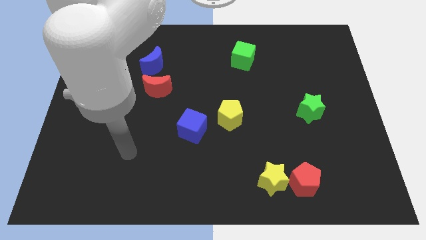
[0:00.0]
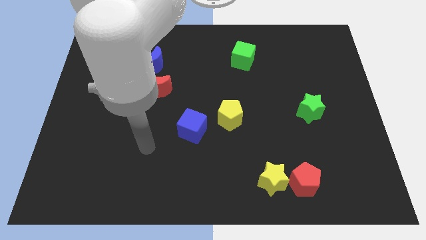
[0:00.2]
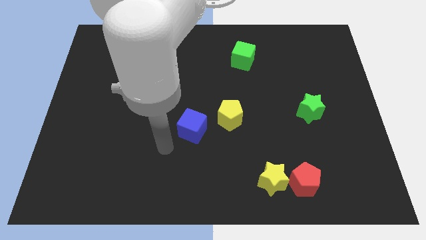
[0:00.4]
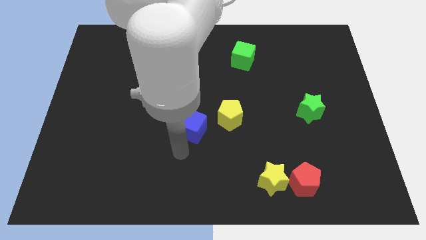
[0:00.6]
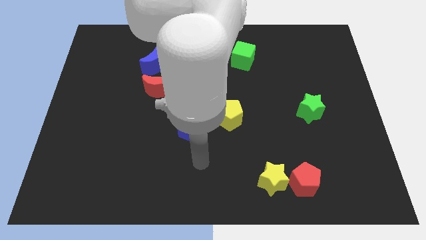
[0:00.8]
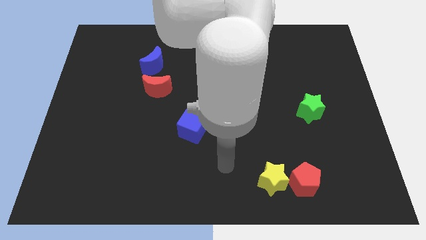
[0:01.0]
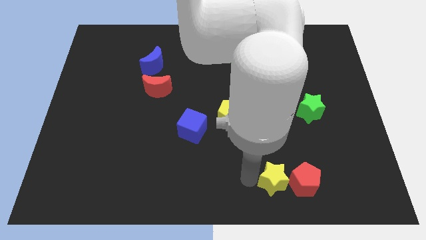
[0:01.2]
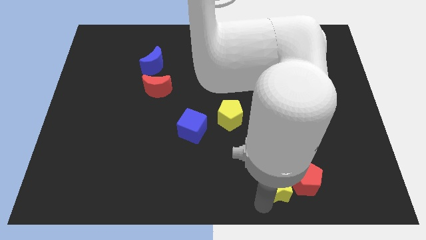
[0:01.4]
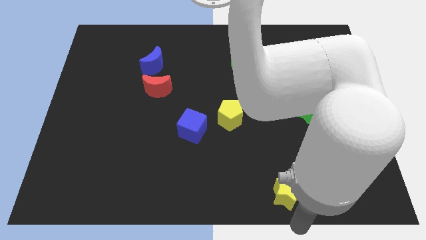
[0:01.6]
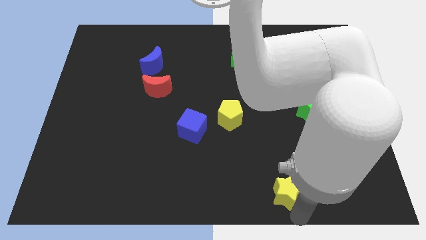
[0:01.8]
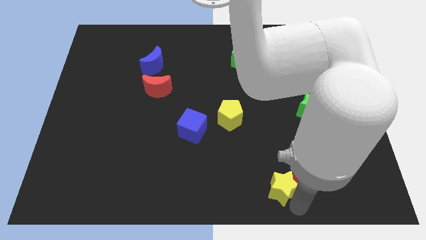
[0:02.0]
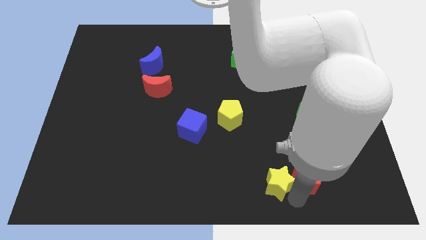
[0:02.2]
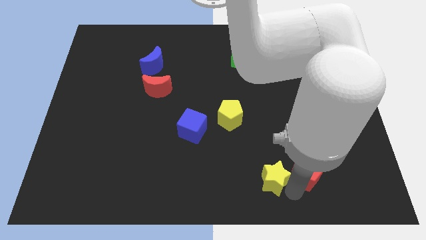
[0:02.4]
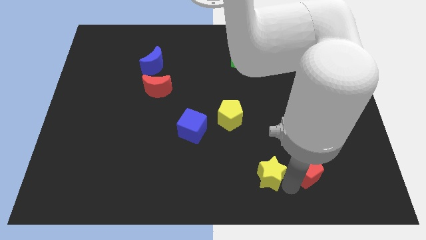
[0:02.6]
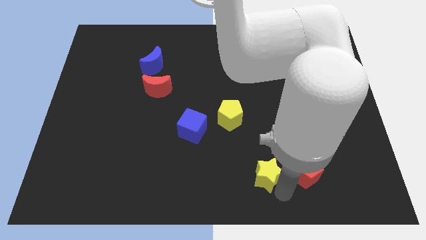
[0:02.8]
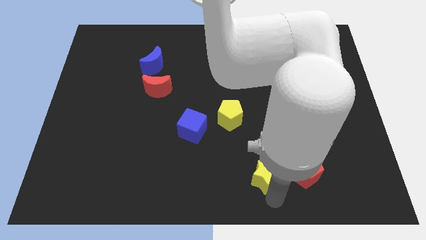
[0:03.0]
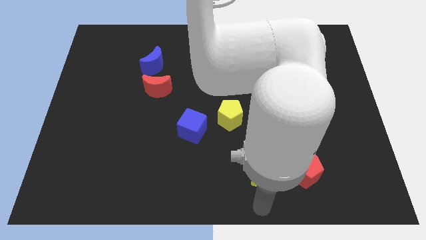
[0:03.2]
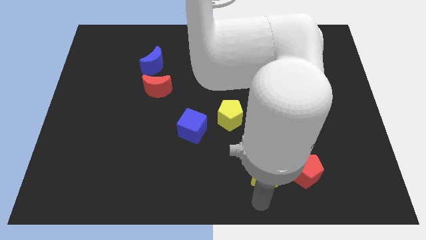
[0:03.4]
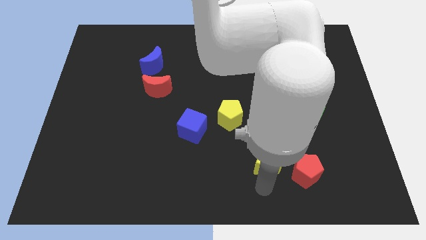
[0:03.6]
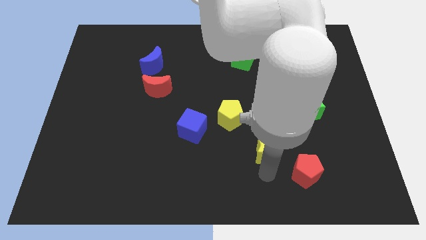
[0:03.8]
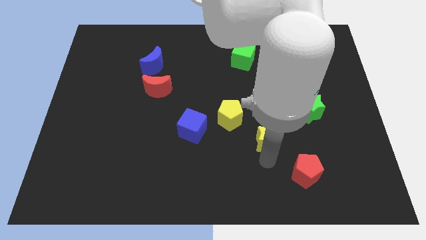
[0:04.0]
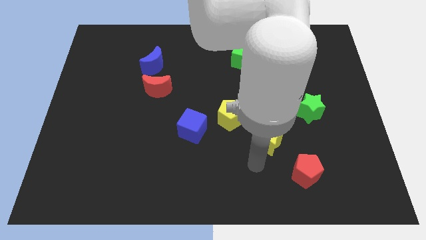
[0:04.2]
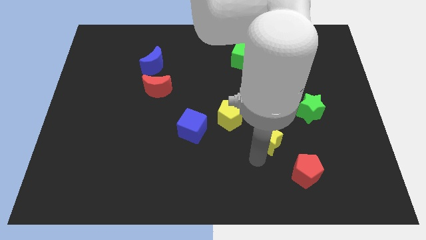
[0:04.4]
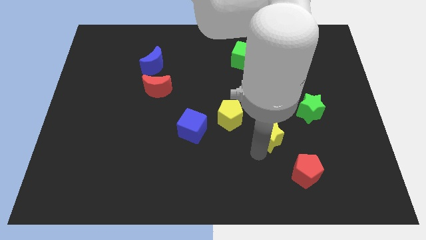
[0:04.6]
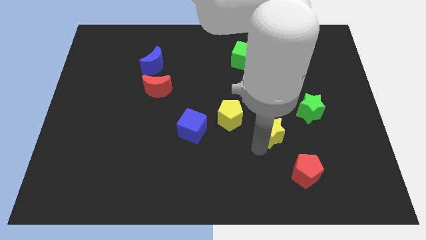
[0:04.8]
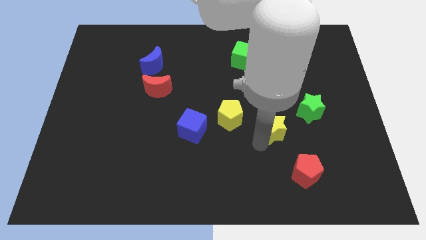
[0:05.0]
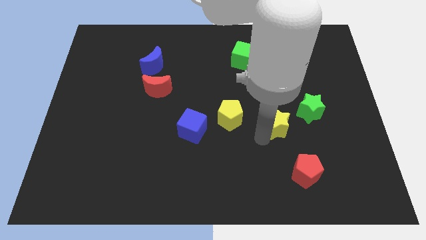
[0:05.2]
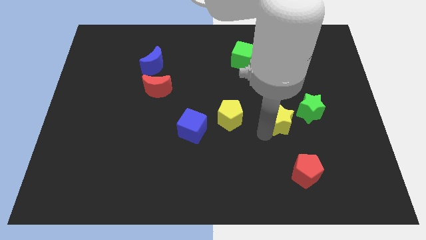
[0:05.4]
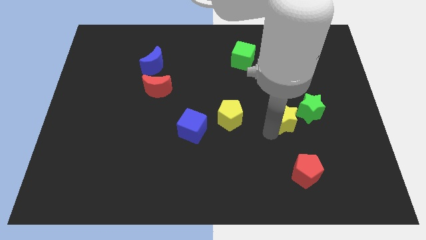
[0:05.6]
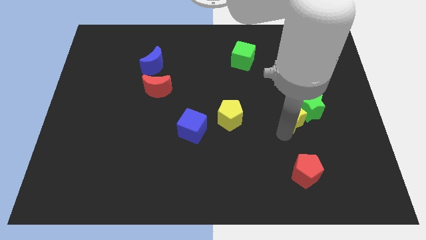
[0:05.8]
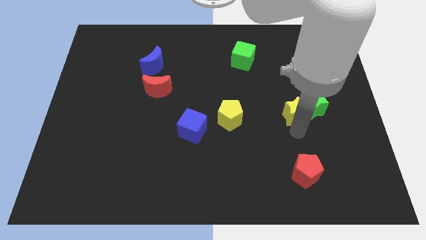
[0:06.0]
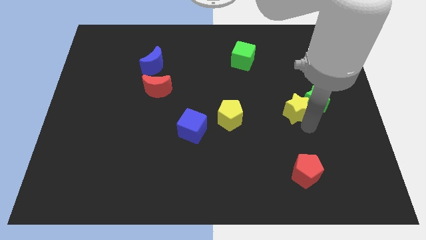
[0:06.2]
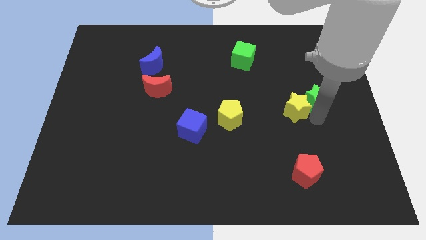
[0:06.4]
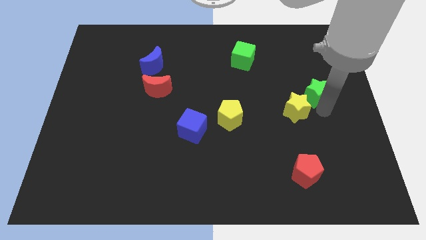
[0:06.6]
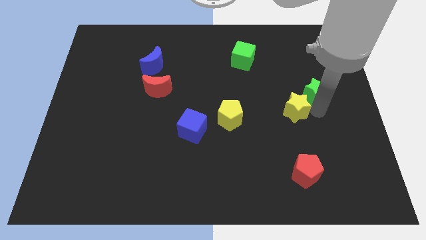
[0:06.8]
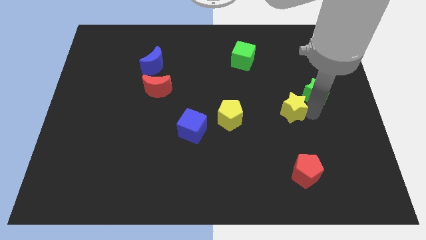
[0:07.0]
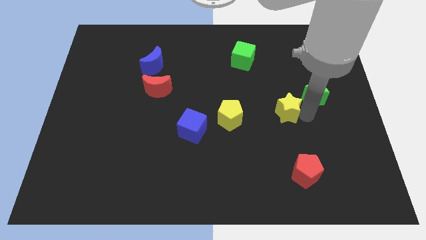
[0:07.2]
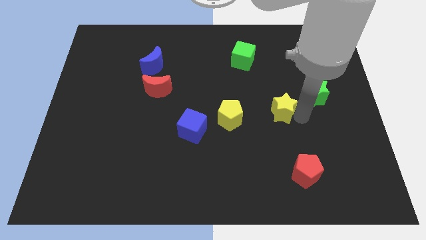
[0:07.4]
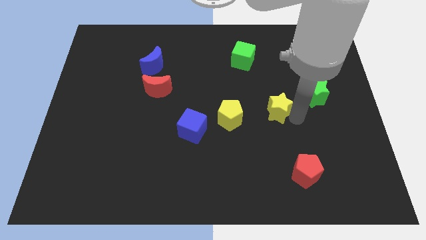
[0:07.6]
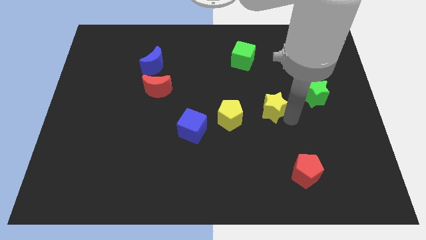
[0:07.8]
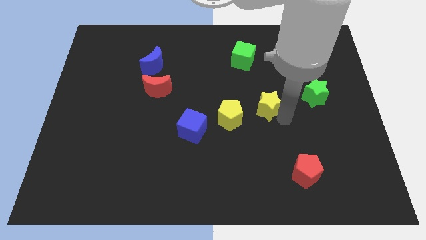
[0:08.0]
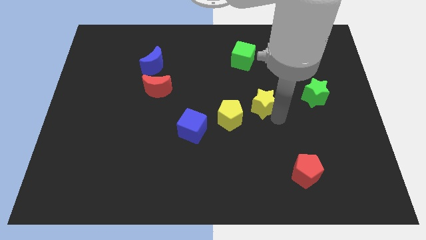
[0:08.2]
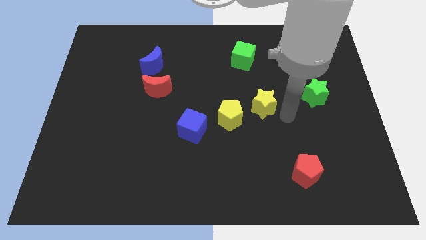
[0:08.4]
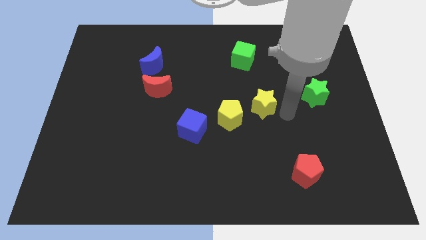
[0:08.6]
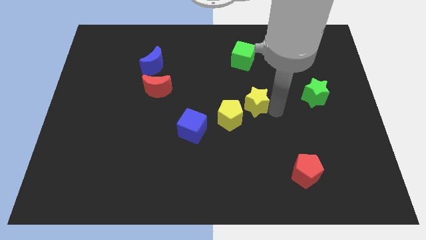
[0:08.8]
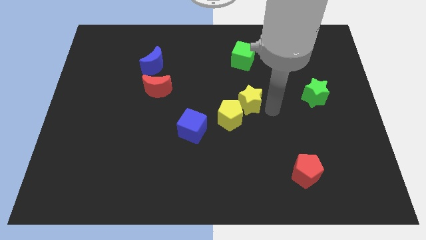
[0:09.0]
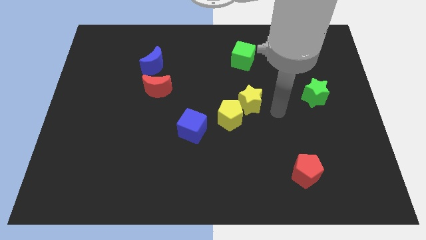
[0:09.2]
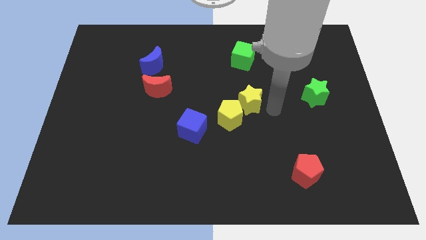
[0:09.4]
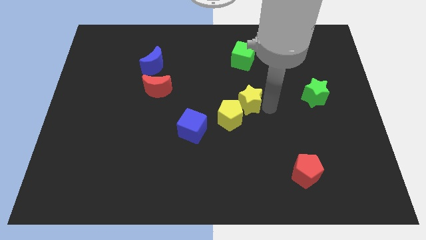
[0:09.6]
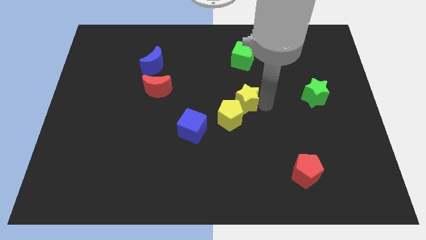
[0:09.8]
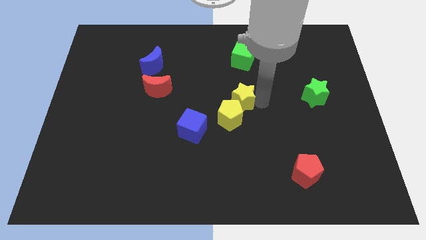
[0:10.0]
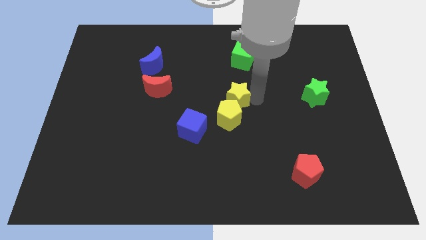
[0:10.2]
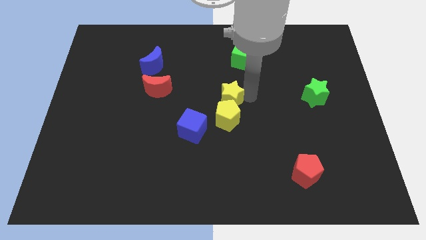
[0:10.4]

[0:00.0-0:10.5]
slide the yellow star diagonally up and to the left of the yellow pentagon

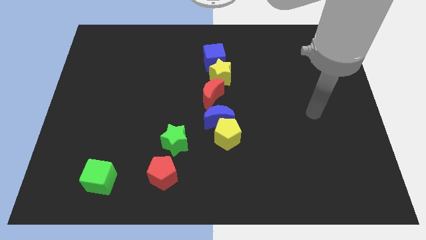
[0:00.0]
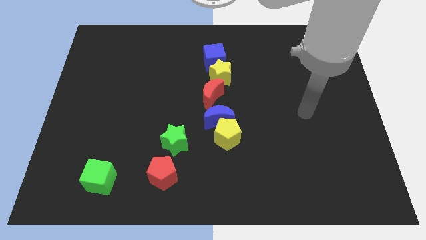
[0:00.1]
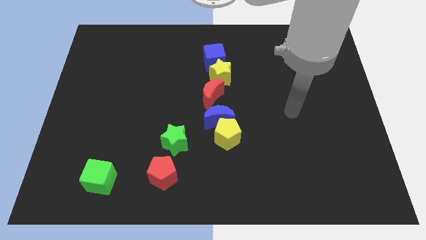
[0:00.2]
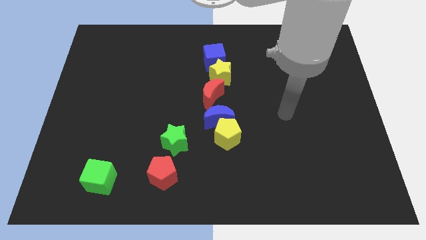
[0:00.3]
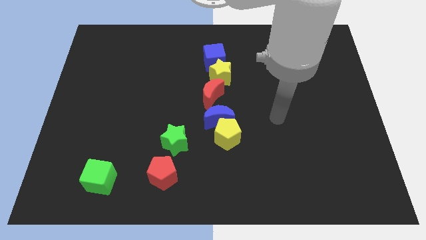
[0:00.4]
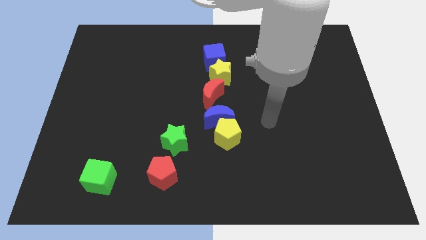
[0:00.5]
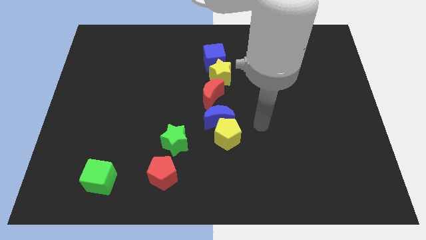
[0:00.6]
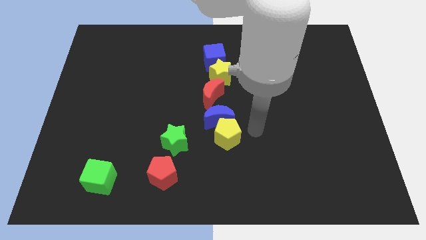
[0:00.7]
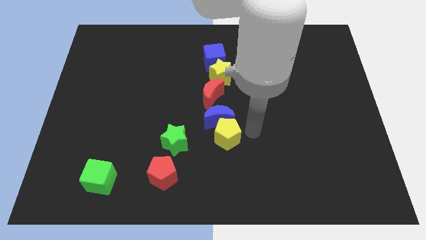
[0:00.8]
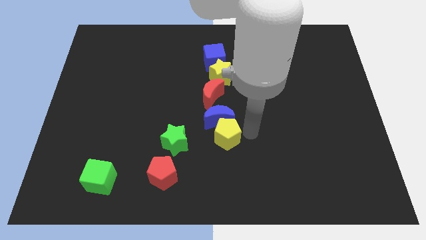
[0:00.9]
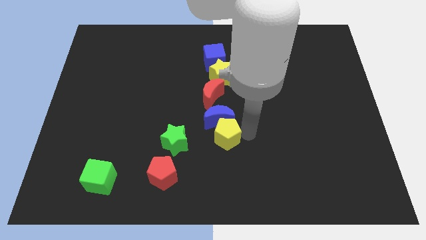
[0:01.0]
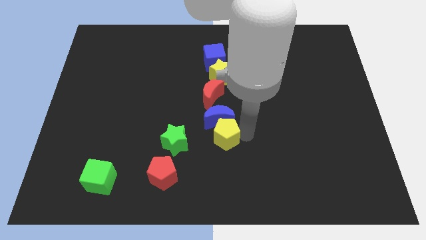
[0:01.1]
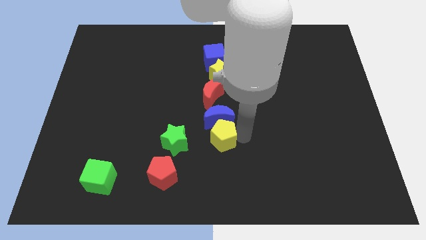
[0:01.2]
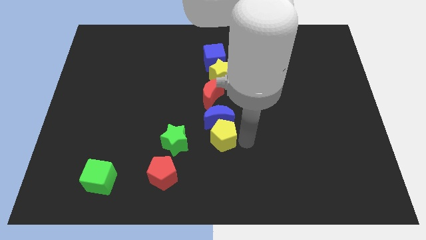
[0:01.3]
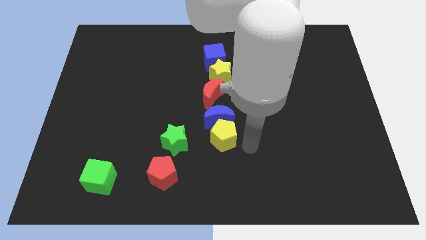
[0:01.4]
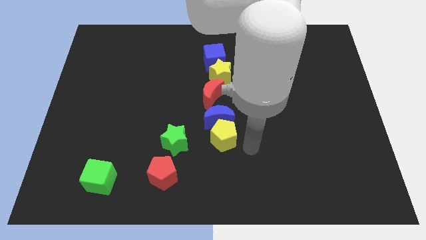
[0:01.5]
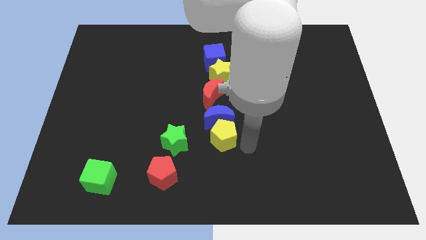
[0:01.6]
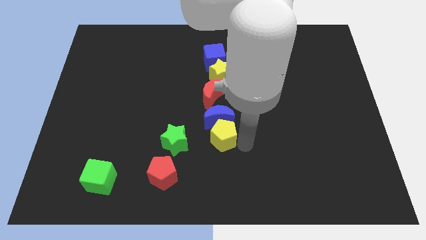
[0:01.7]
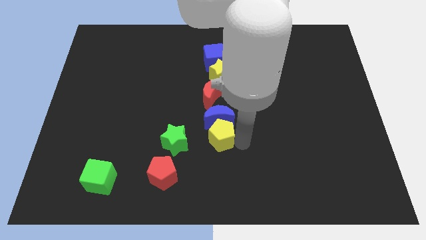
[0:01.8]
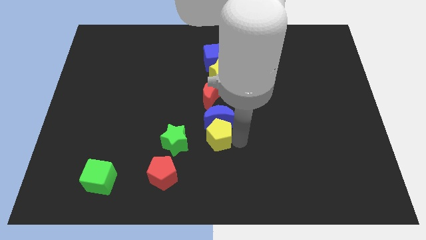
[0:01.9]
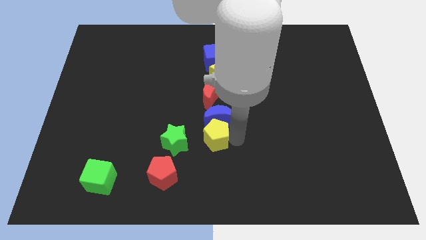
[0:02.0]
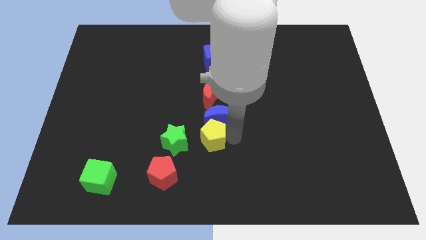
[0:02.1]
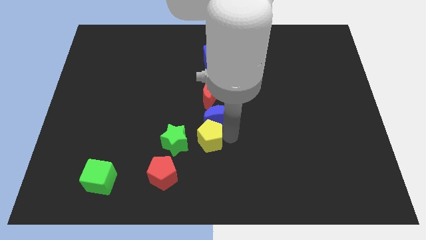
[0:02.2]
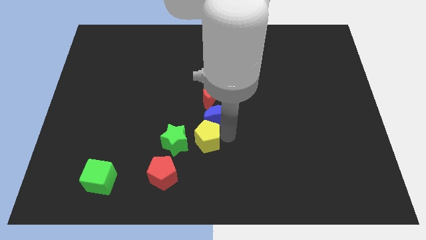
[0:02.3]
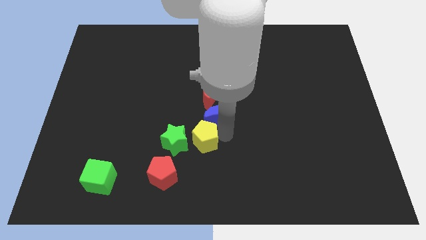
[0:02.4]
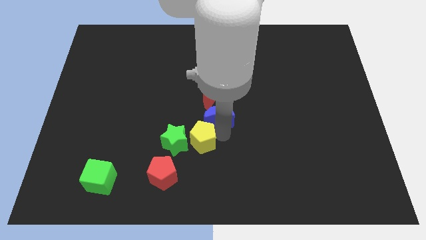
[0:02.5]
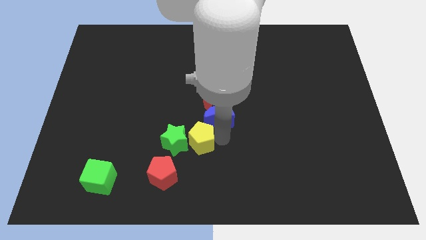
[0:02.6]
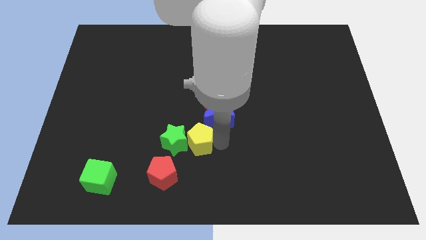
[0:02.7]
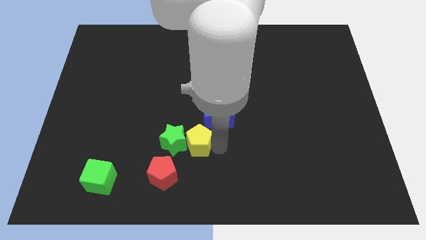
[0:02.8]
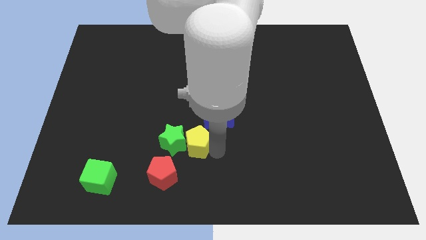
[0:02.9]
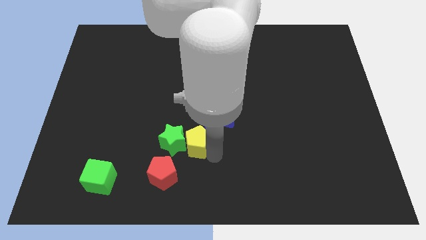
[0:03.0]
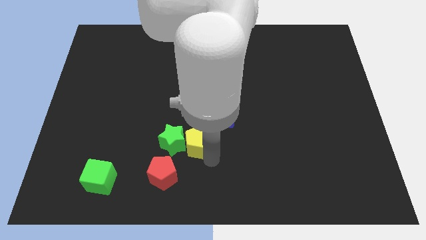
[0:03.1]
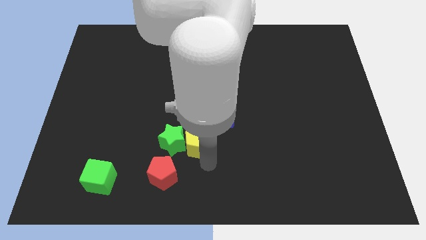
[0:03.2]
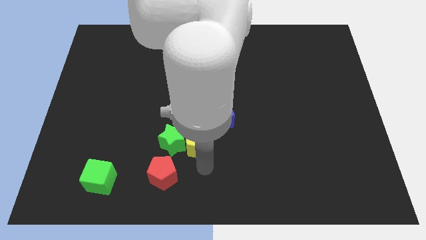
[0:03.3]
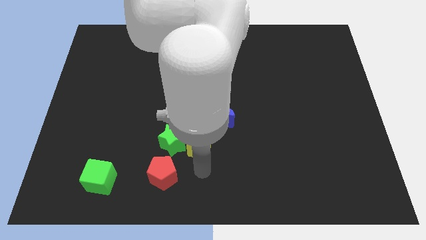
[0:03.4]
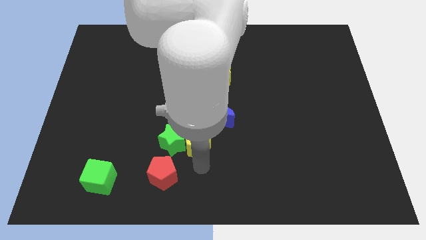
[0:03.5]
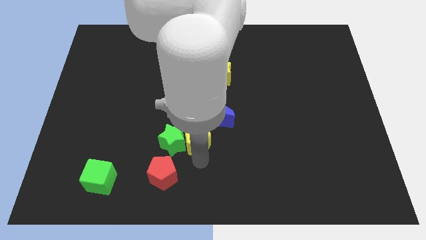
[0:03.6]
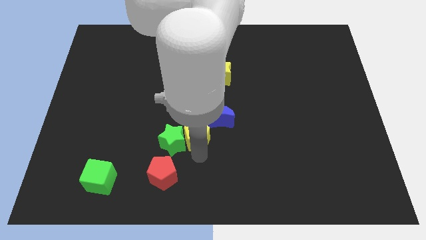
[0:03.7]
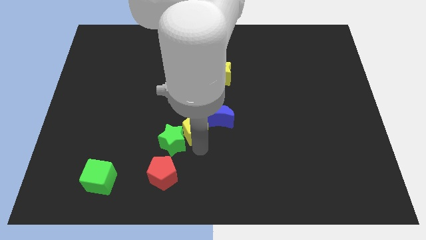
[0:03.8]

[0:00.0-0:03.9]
move the yellow pentagon to the left of the blue moon
